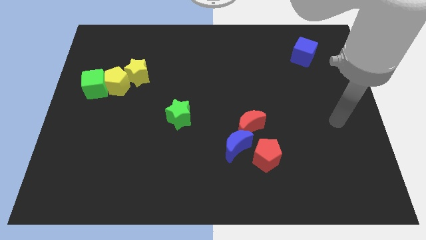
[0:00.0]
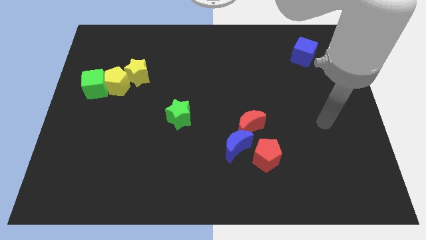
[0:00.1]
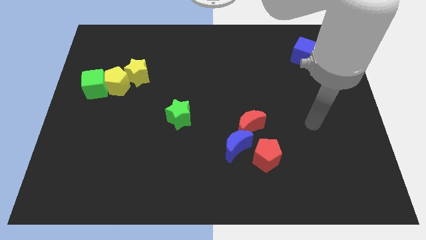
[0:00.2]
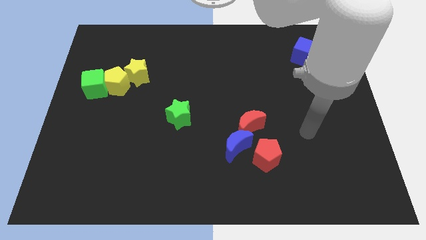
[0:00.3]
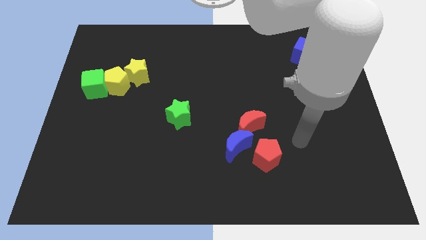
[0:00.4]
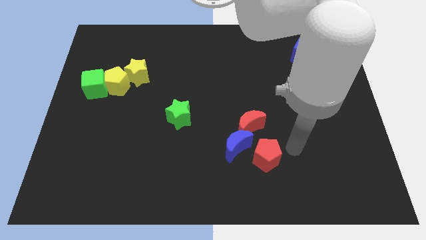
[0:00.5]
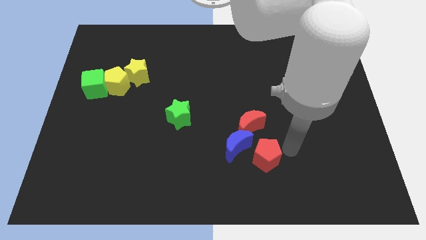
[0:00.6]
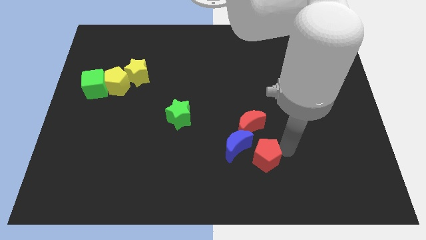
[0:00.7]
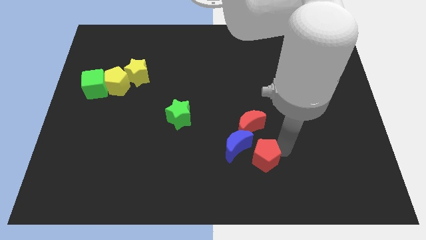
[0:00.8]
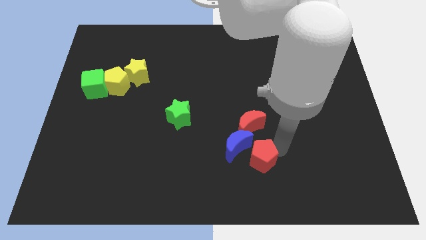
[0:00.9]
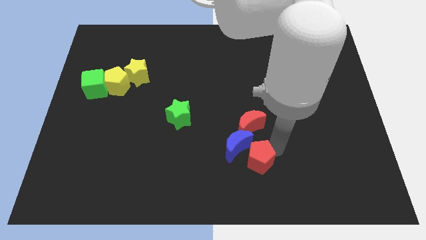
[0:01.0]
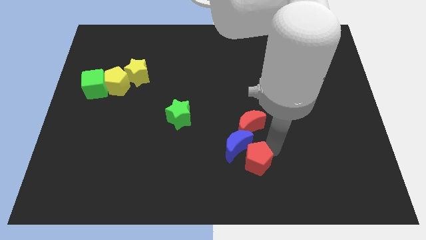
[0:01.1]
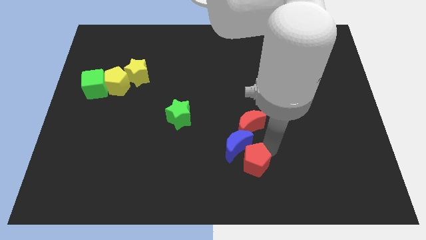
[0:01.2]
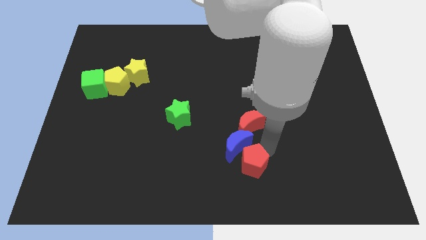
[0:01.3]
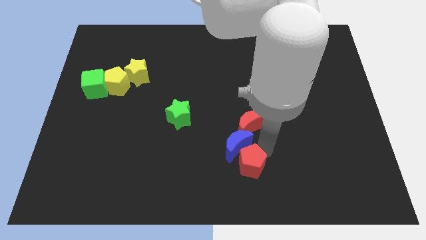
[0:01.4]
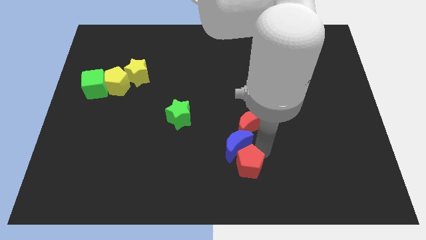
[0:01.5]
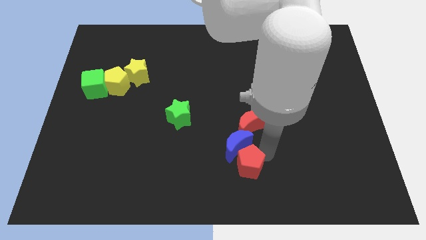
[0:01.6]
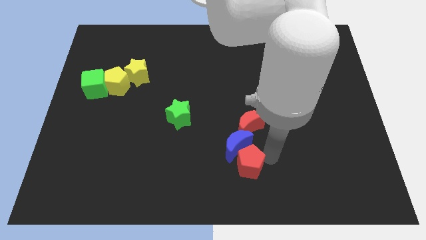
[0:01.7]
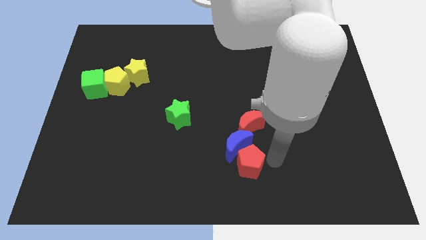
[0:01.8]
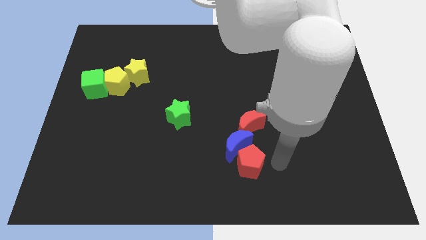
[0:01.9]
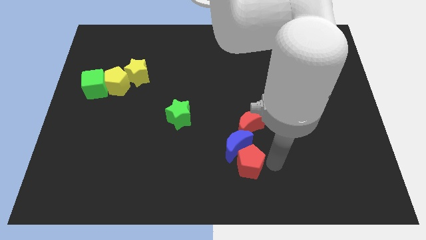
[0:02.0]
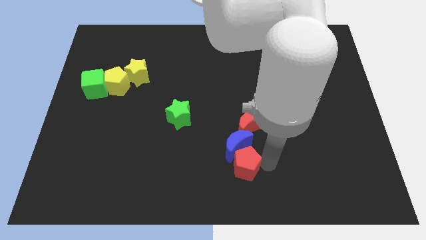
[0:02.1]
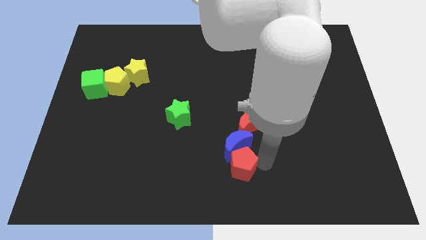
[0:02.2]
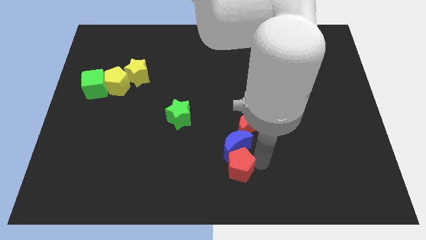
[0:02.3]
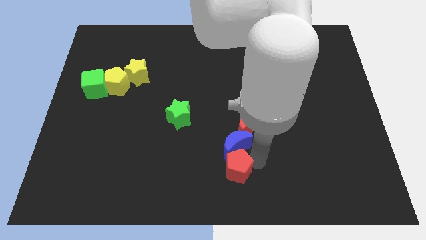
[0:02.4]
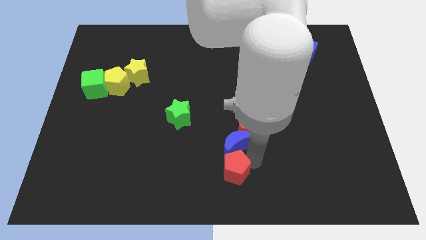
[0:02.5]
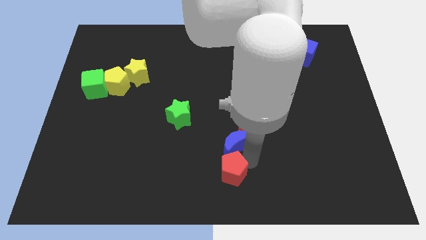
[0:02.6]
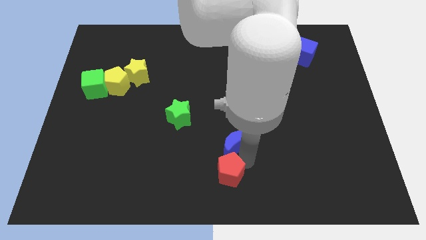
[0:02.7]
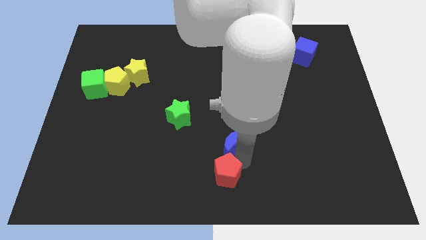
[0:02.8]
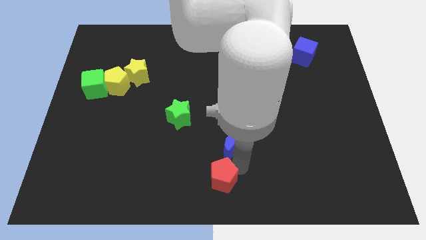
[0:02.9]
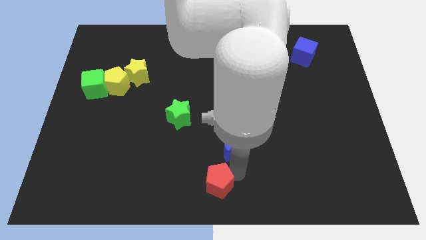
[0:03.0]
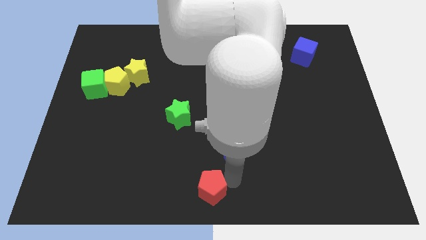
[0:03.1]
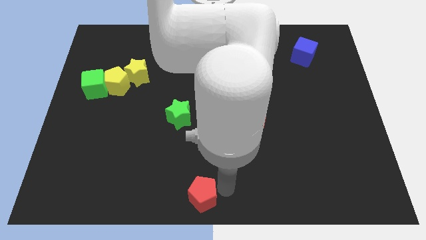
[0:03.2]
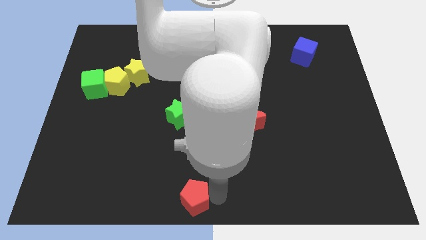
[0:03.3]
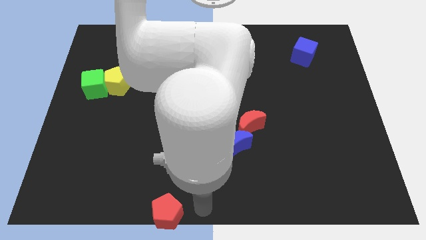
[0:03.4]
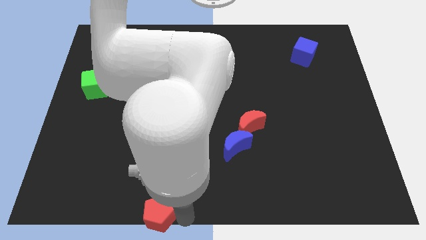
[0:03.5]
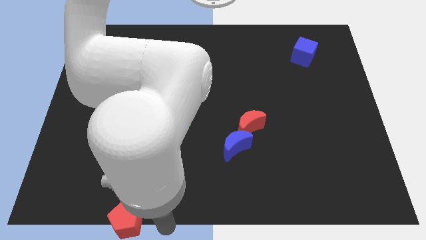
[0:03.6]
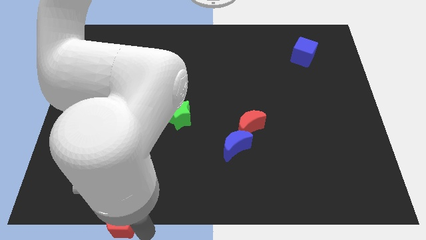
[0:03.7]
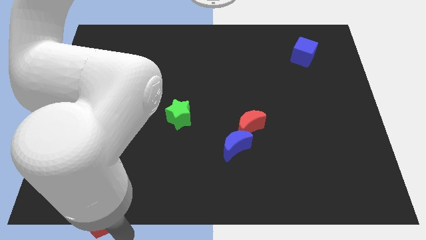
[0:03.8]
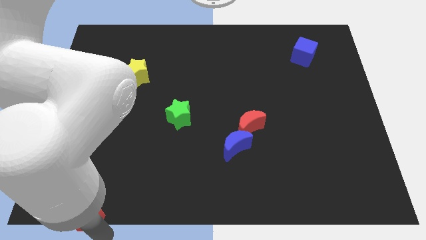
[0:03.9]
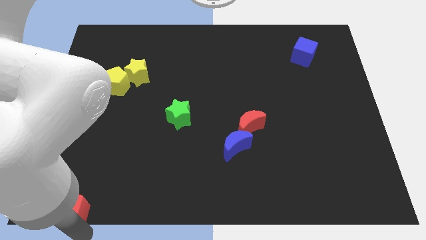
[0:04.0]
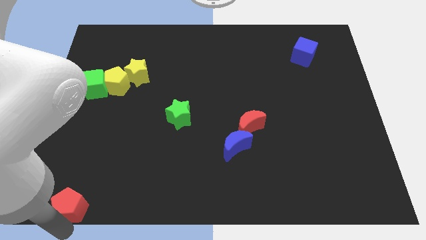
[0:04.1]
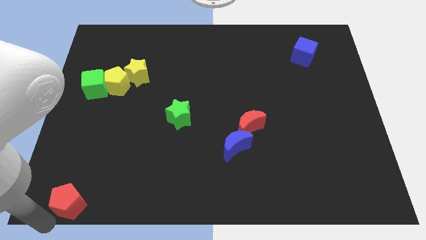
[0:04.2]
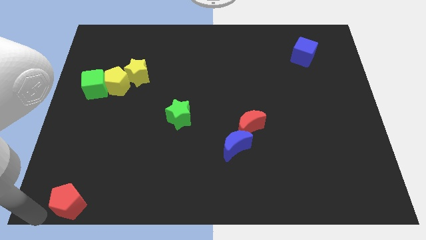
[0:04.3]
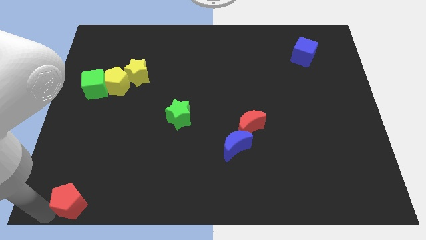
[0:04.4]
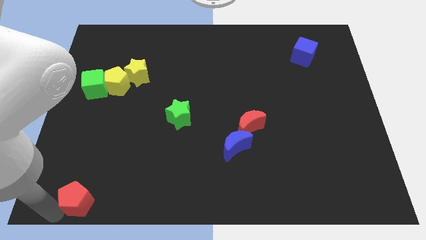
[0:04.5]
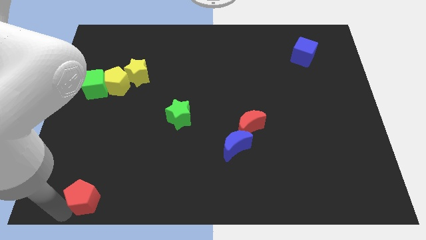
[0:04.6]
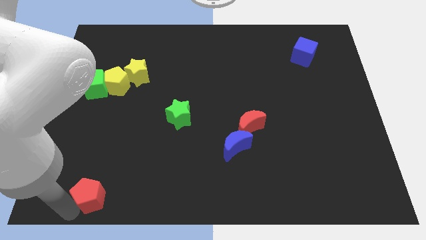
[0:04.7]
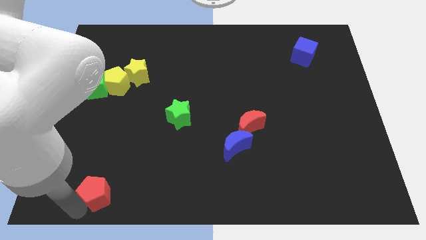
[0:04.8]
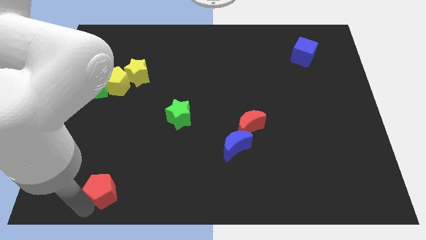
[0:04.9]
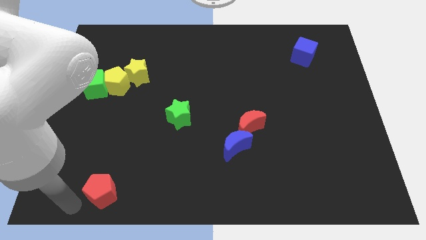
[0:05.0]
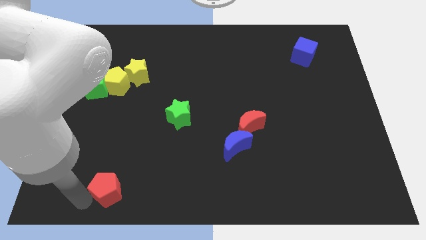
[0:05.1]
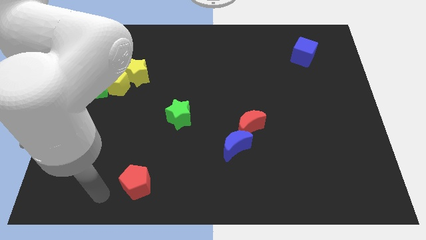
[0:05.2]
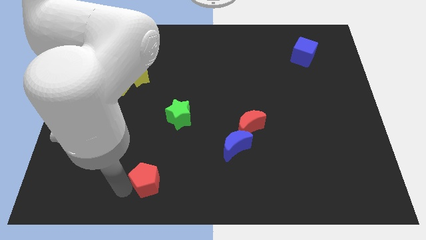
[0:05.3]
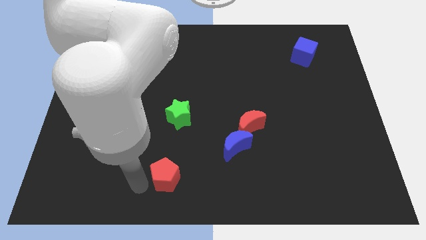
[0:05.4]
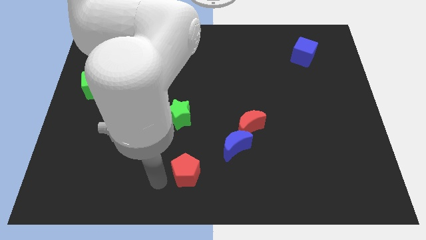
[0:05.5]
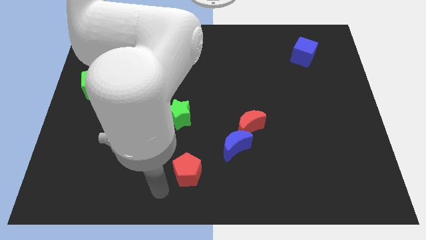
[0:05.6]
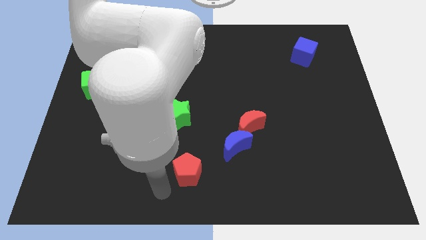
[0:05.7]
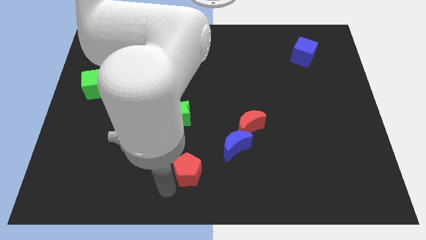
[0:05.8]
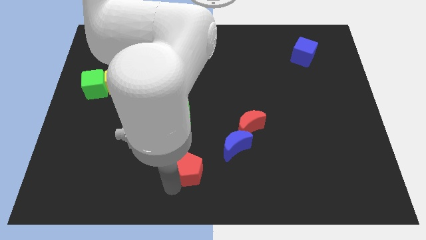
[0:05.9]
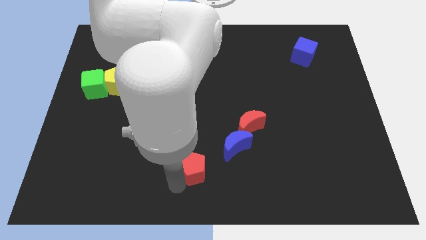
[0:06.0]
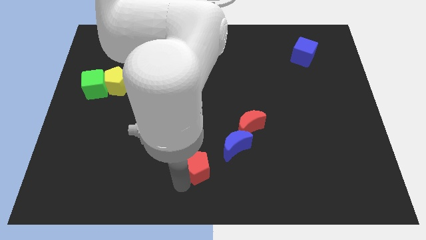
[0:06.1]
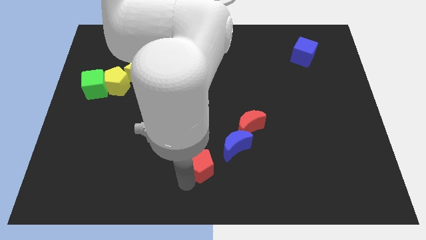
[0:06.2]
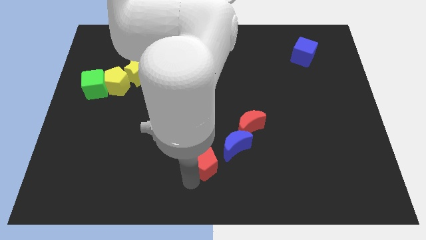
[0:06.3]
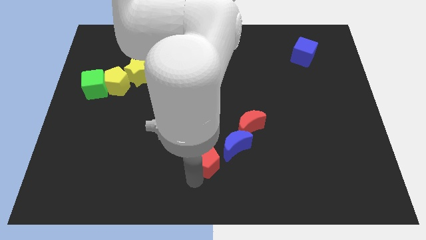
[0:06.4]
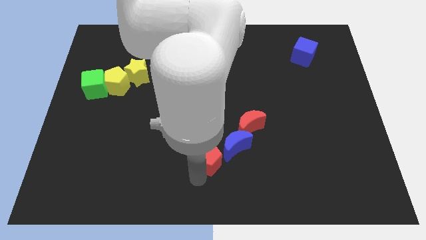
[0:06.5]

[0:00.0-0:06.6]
push the red pentagon to the bottom left side of the red moon

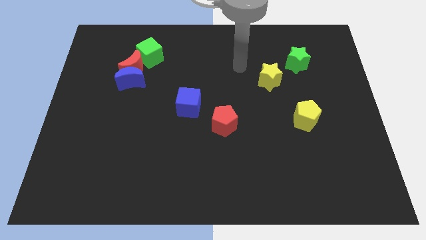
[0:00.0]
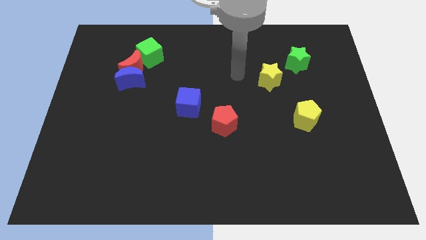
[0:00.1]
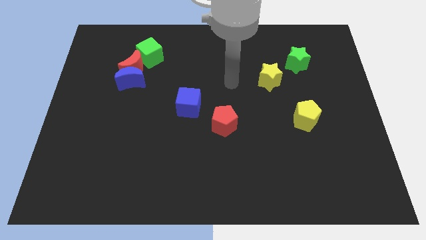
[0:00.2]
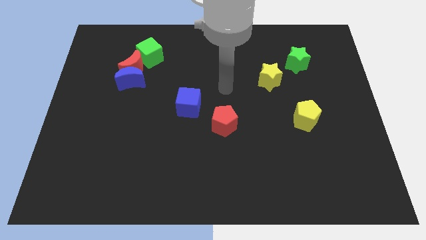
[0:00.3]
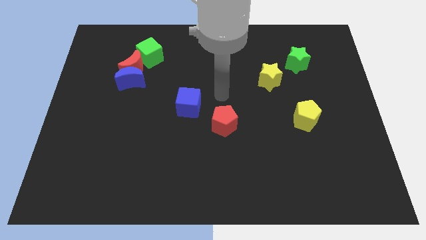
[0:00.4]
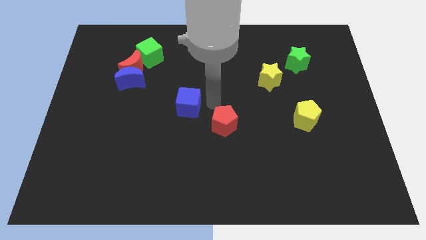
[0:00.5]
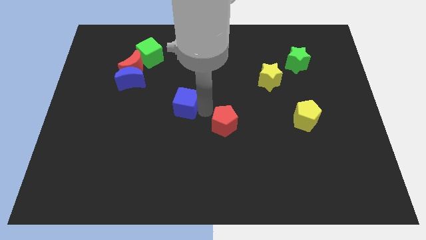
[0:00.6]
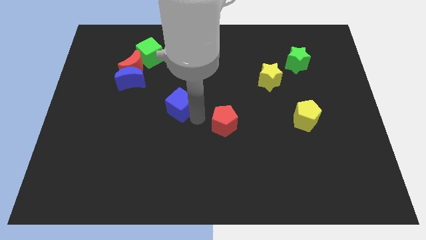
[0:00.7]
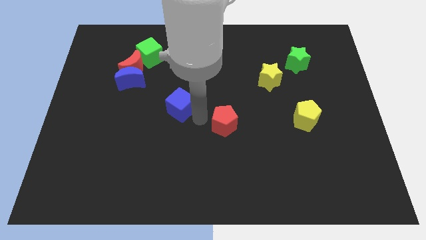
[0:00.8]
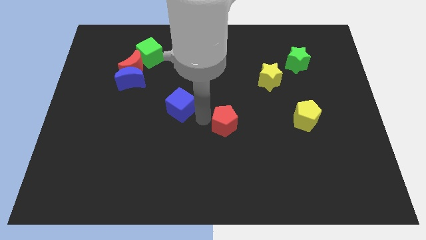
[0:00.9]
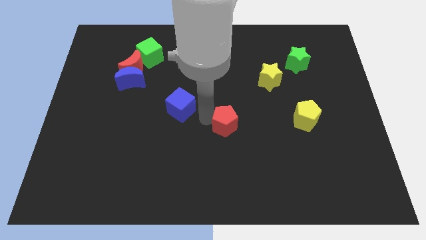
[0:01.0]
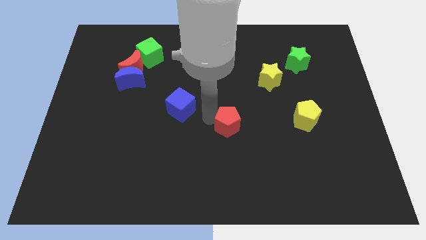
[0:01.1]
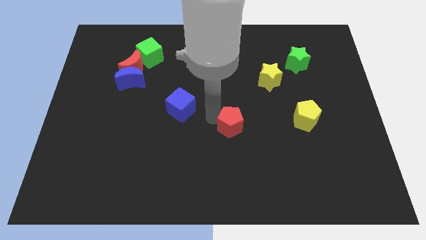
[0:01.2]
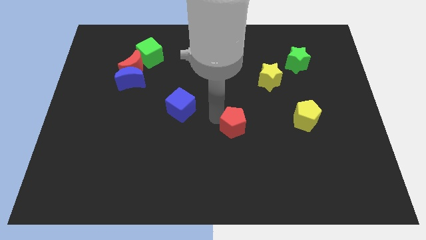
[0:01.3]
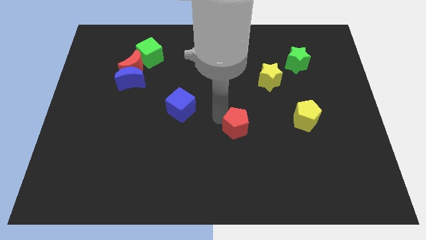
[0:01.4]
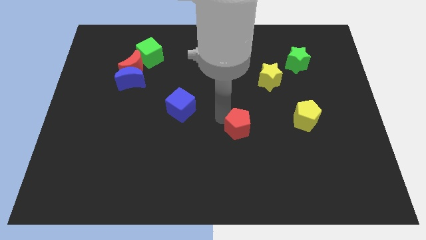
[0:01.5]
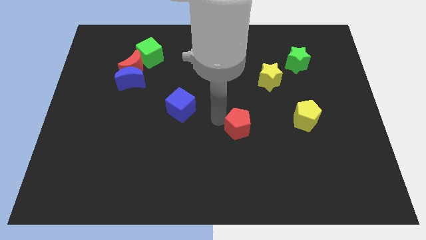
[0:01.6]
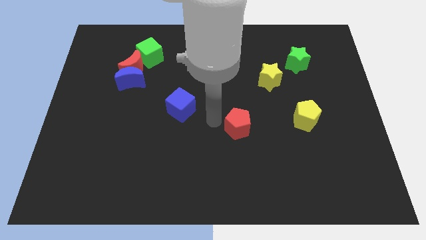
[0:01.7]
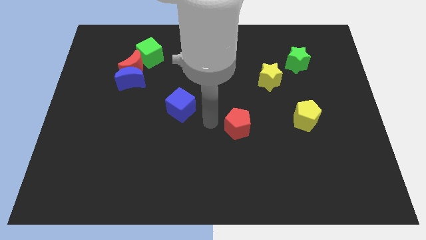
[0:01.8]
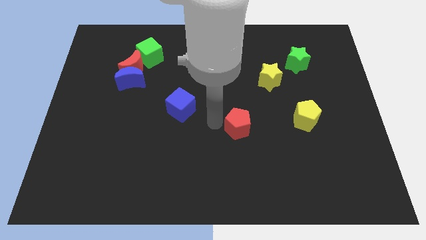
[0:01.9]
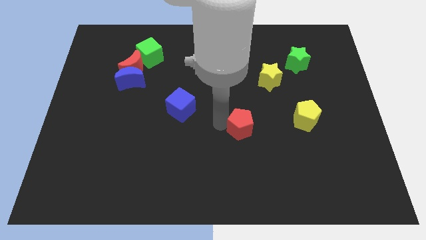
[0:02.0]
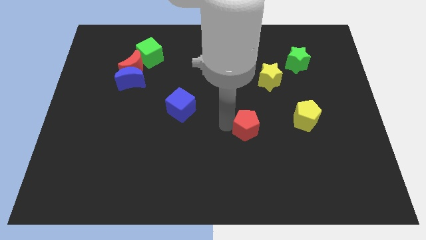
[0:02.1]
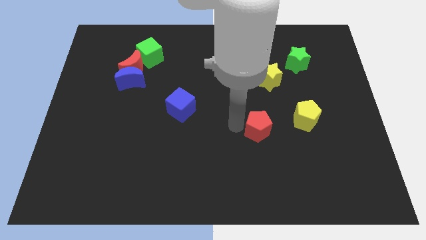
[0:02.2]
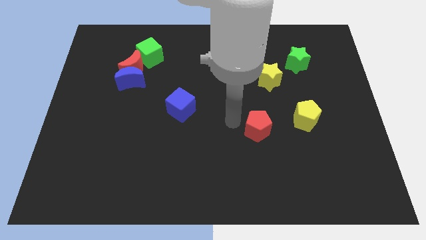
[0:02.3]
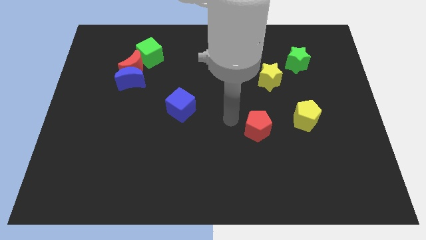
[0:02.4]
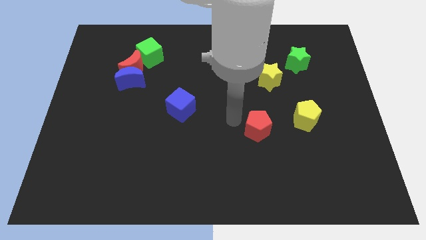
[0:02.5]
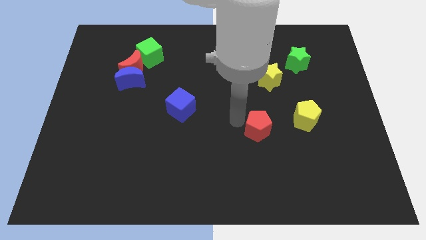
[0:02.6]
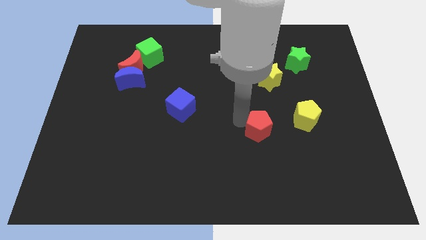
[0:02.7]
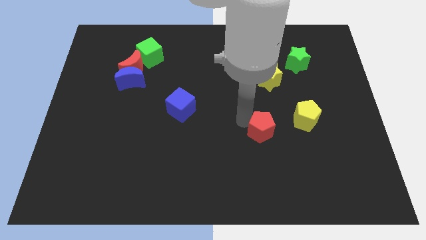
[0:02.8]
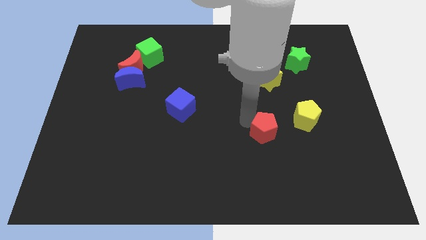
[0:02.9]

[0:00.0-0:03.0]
move the red pentagon to the bottom left of the yellow pentagon
